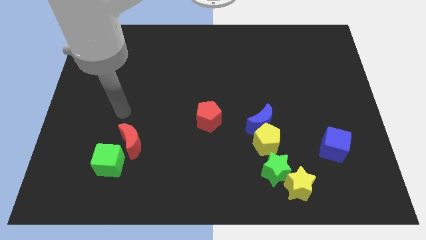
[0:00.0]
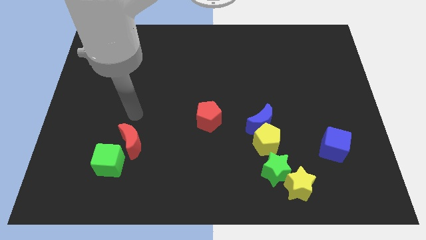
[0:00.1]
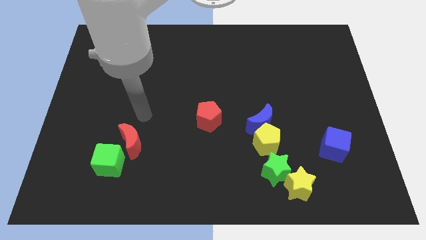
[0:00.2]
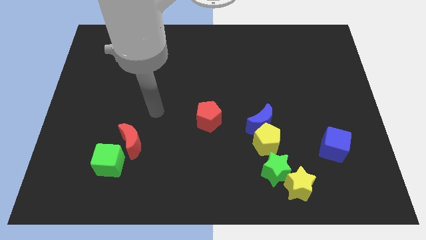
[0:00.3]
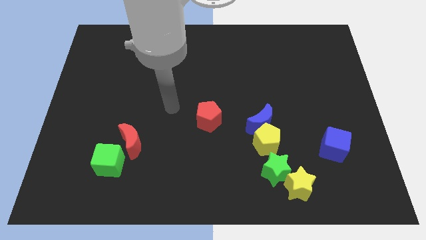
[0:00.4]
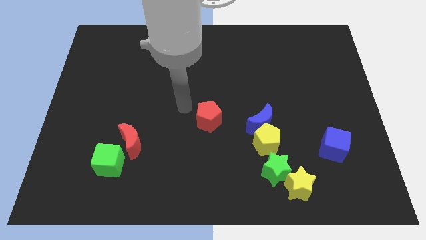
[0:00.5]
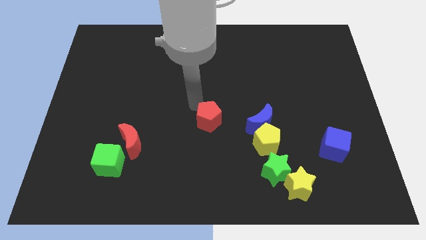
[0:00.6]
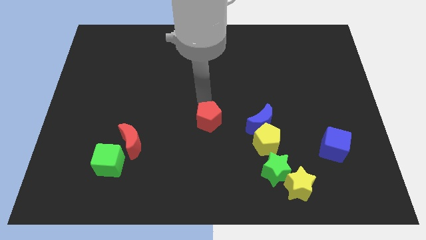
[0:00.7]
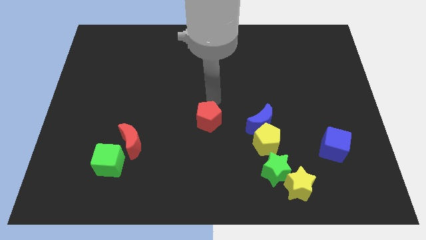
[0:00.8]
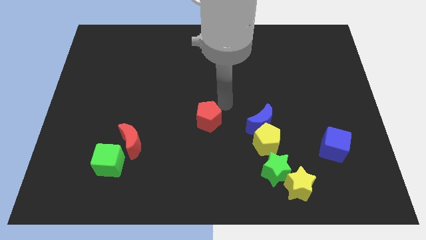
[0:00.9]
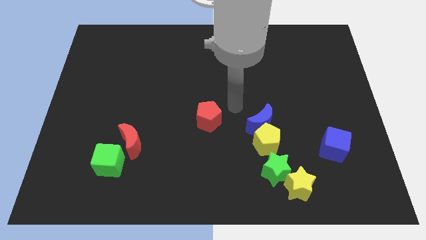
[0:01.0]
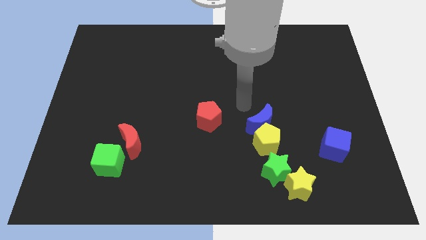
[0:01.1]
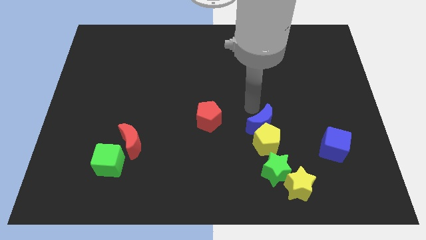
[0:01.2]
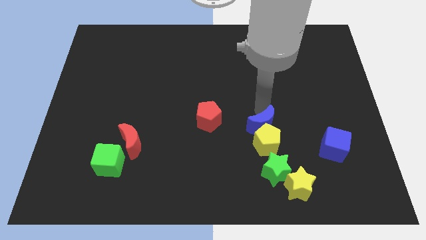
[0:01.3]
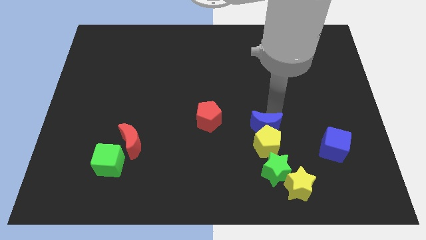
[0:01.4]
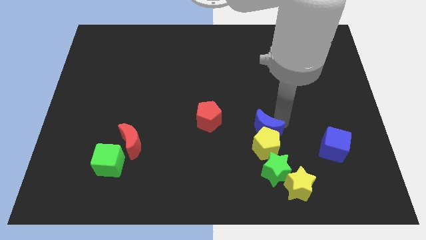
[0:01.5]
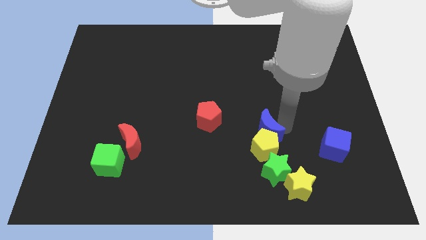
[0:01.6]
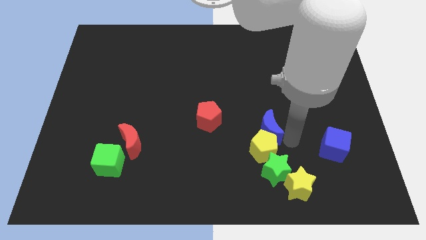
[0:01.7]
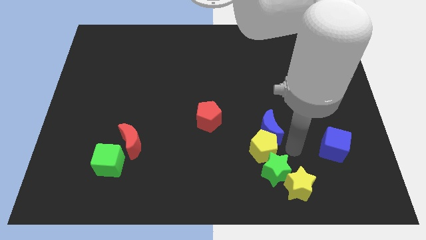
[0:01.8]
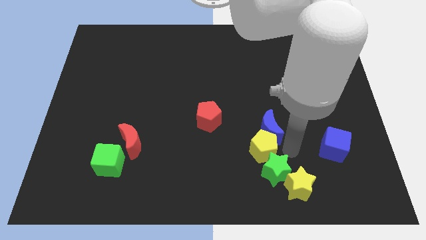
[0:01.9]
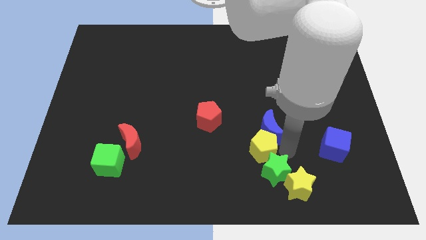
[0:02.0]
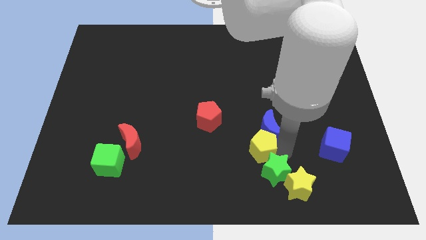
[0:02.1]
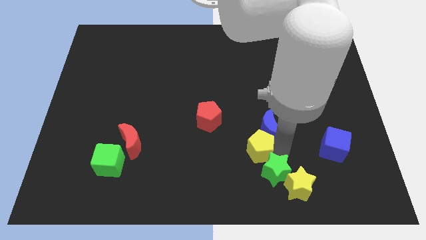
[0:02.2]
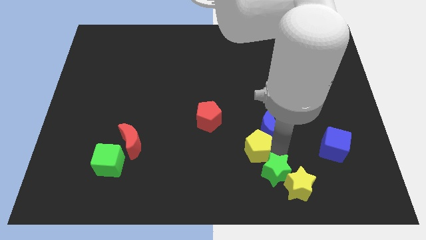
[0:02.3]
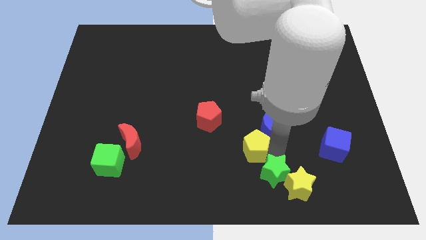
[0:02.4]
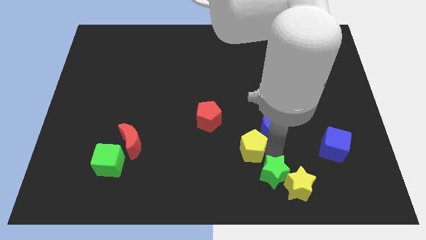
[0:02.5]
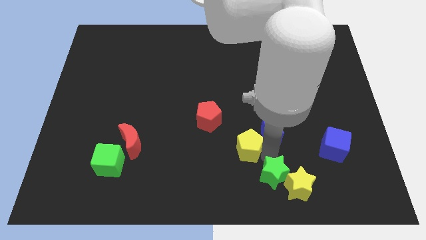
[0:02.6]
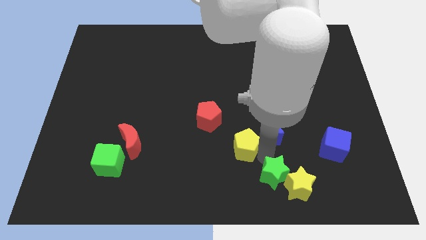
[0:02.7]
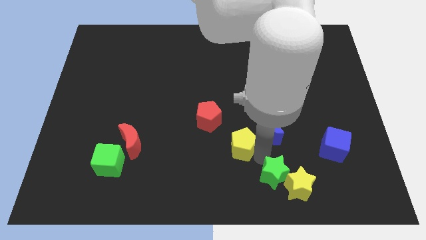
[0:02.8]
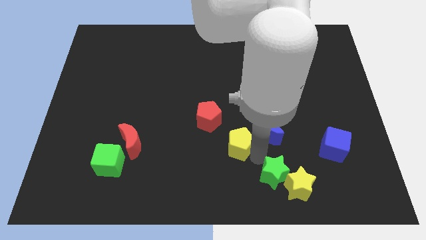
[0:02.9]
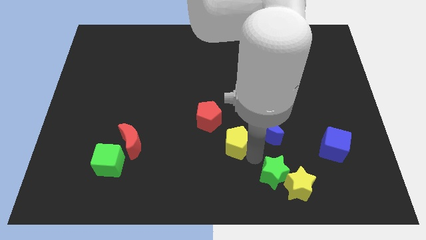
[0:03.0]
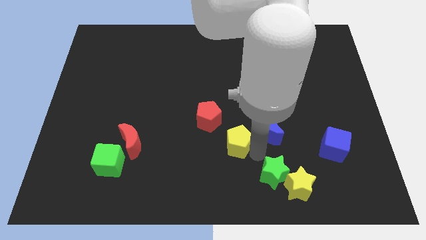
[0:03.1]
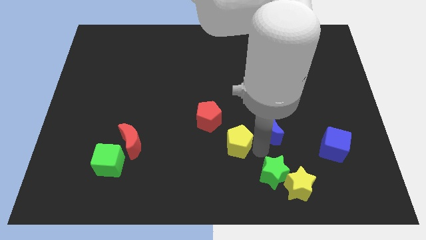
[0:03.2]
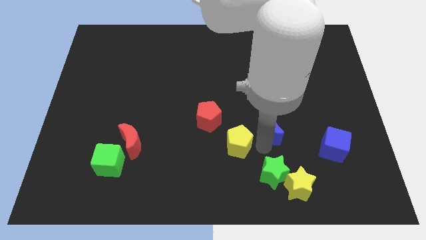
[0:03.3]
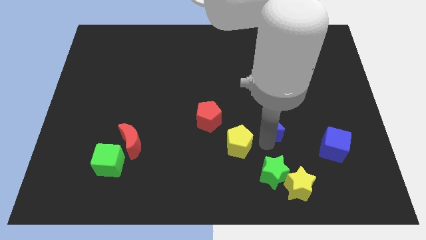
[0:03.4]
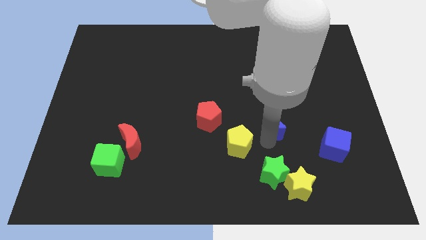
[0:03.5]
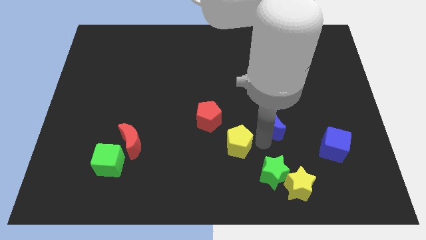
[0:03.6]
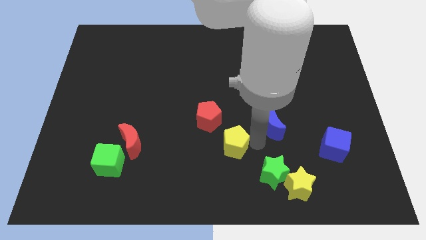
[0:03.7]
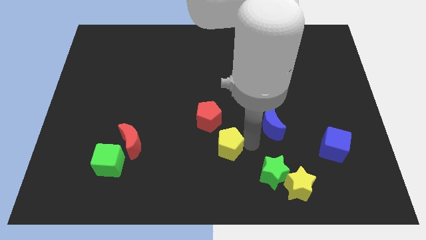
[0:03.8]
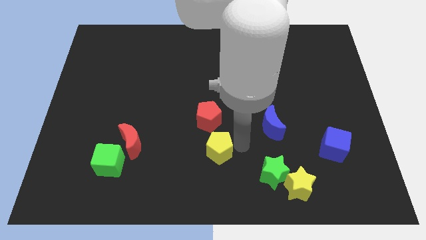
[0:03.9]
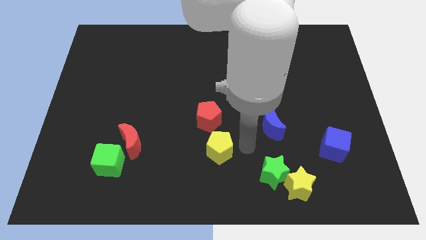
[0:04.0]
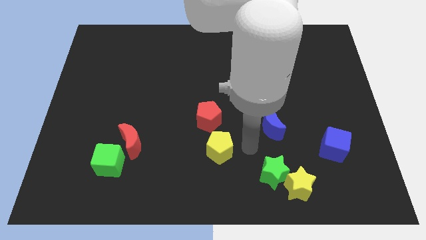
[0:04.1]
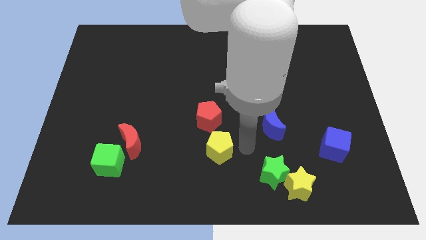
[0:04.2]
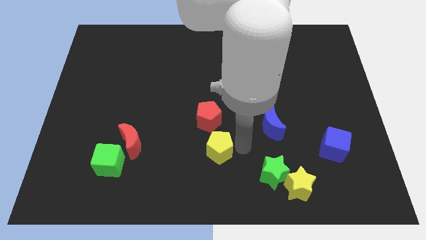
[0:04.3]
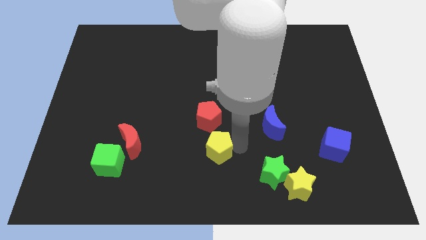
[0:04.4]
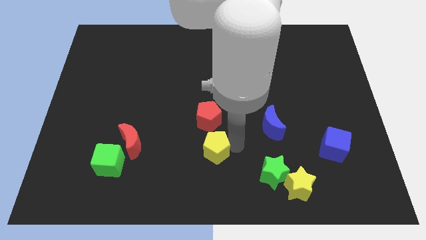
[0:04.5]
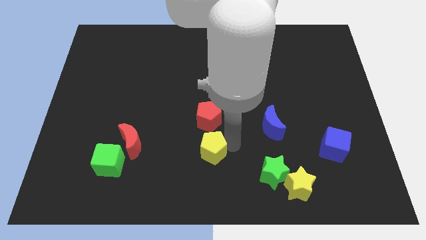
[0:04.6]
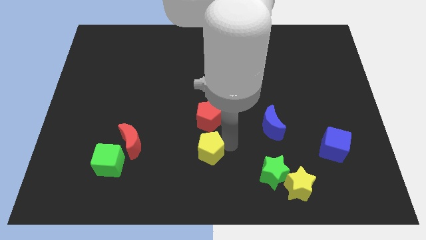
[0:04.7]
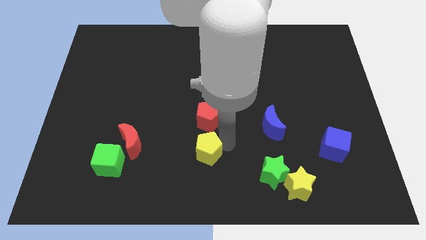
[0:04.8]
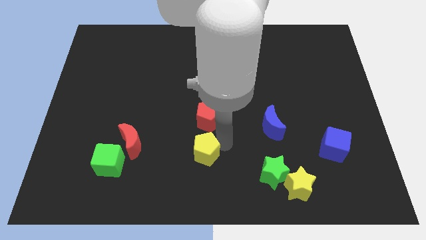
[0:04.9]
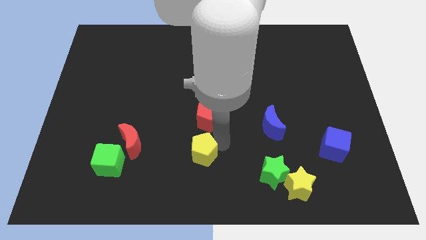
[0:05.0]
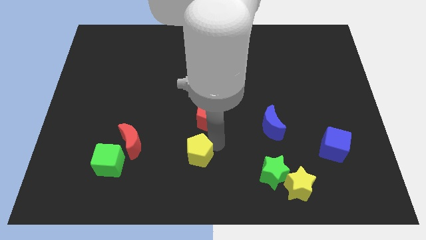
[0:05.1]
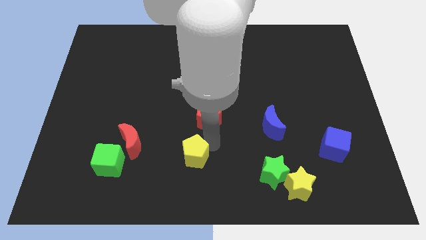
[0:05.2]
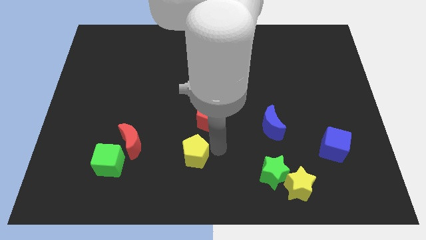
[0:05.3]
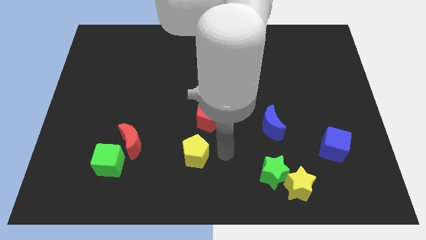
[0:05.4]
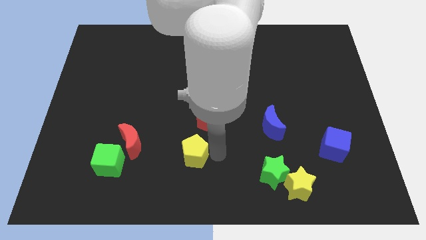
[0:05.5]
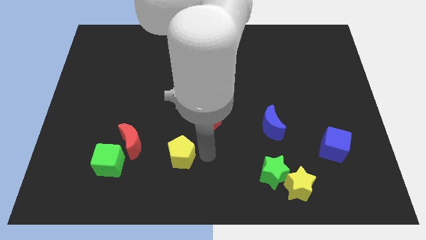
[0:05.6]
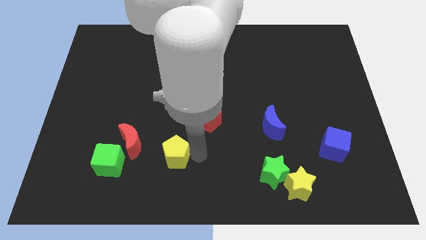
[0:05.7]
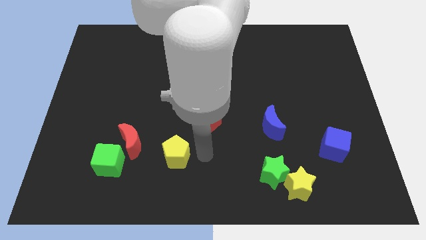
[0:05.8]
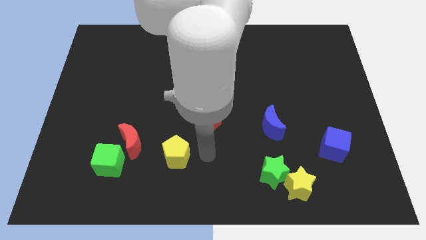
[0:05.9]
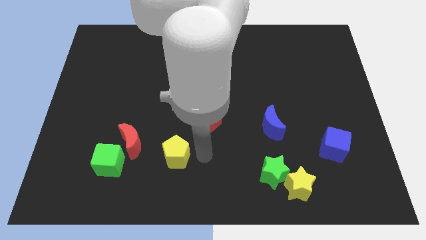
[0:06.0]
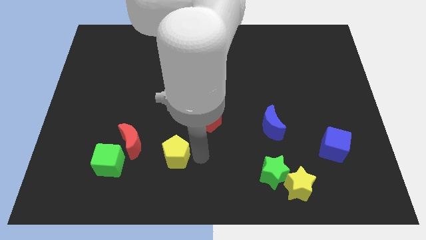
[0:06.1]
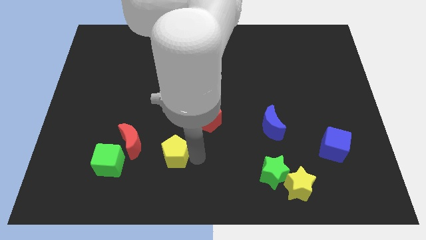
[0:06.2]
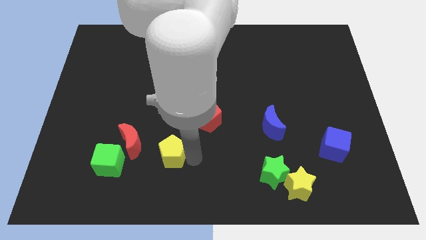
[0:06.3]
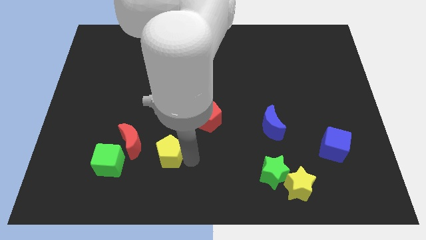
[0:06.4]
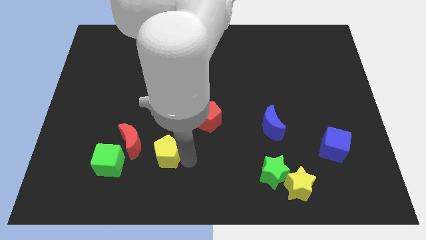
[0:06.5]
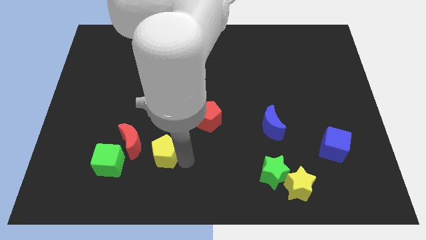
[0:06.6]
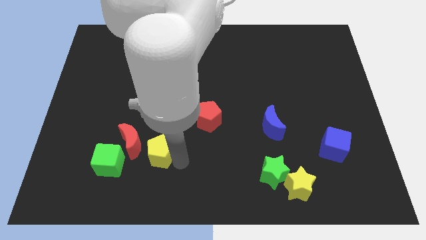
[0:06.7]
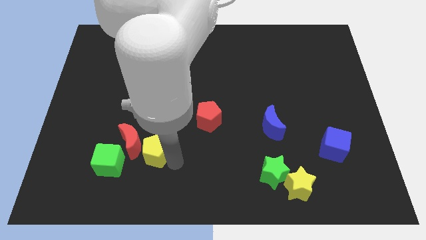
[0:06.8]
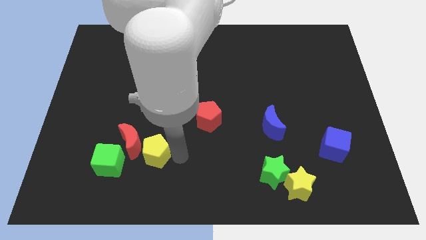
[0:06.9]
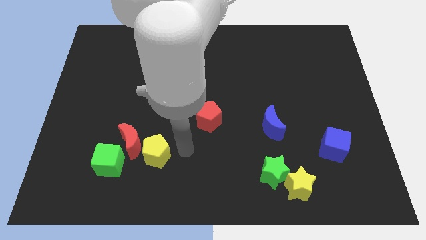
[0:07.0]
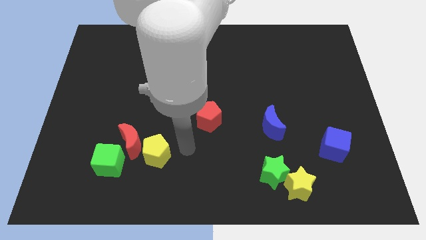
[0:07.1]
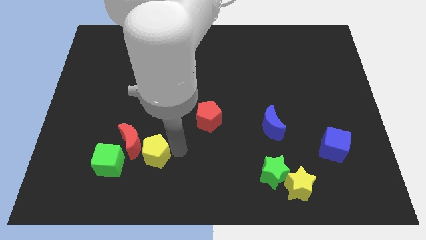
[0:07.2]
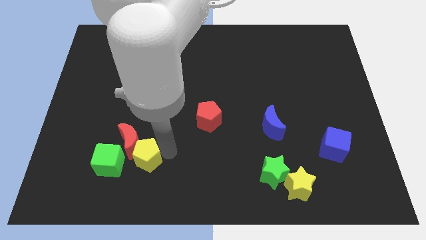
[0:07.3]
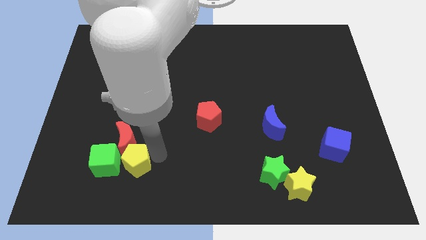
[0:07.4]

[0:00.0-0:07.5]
slide the yellow pentagon next to the green cube
